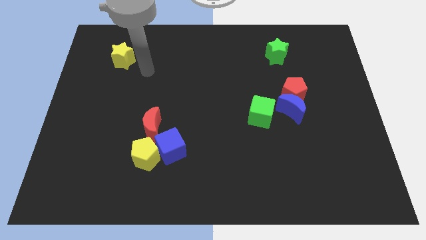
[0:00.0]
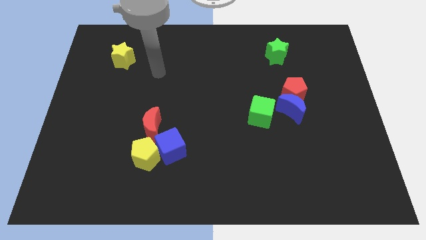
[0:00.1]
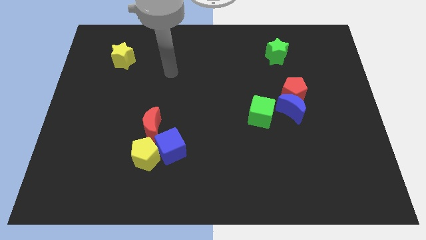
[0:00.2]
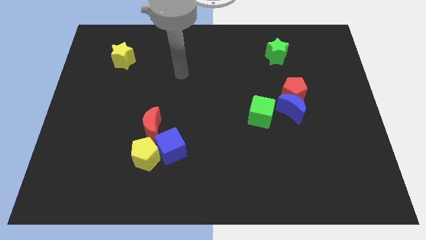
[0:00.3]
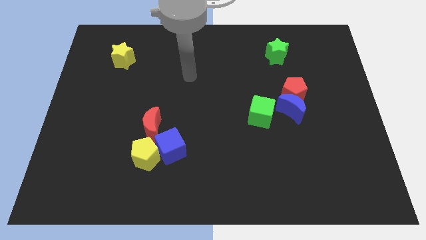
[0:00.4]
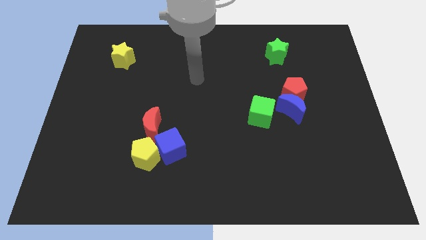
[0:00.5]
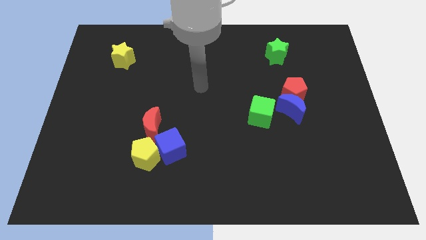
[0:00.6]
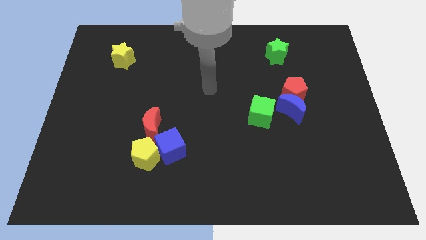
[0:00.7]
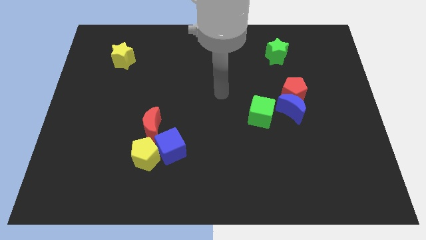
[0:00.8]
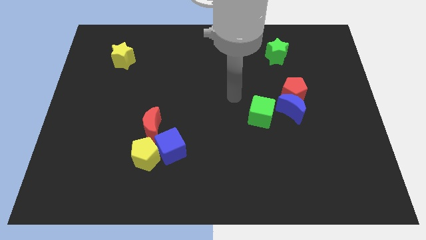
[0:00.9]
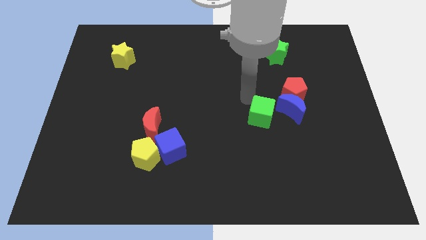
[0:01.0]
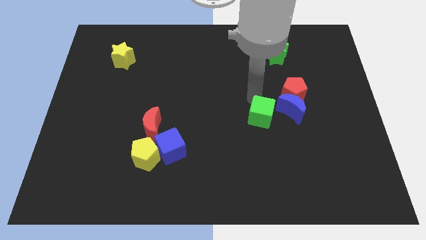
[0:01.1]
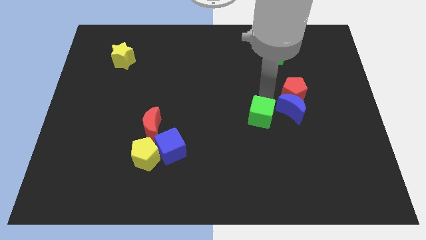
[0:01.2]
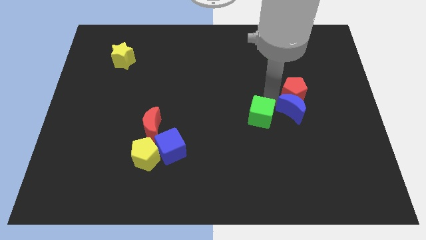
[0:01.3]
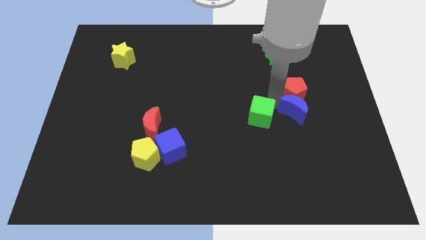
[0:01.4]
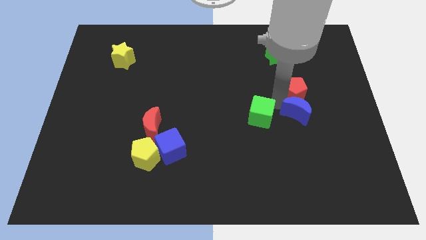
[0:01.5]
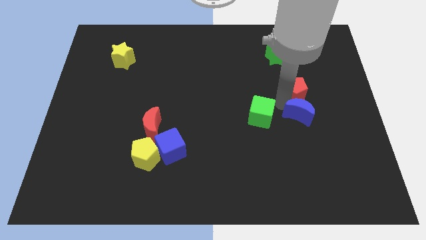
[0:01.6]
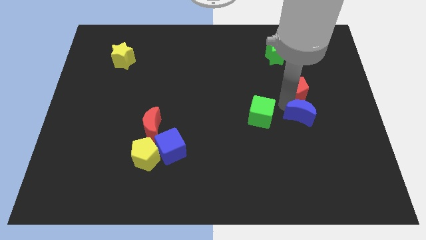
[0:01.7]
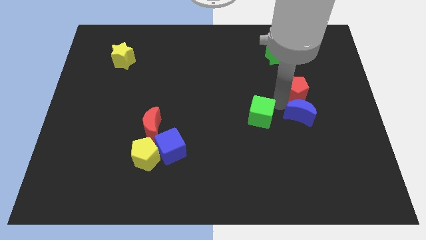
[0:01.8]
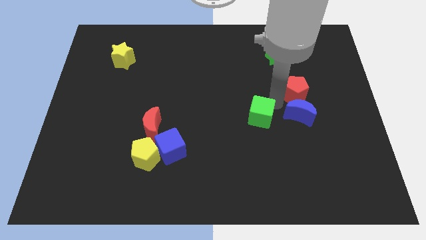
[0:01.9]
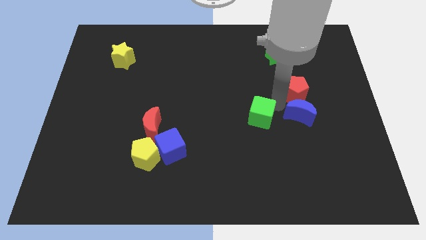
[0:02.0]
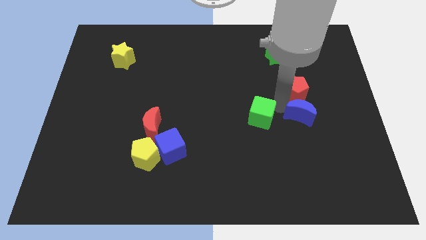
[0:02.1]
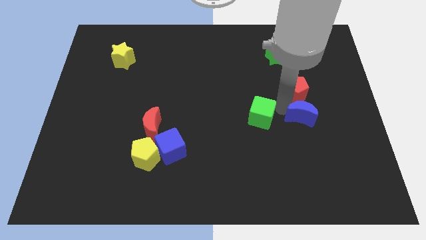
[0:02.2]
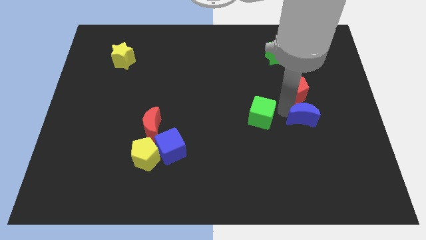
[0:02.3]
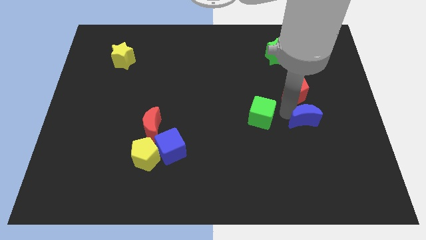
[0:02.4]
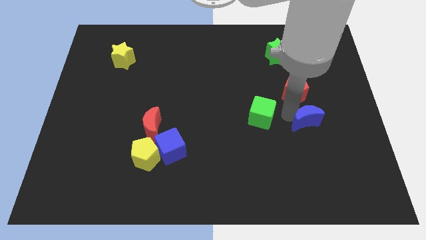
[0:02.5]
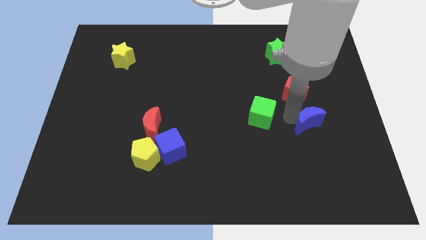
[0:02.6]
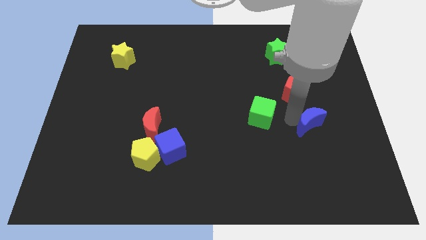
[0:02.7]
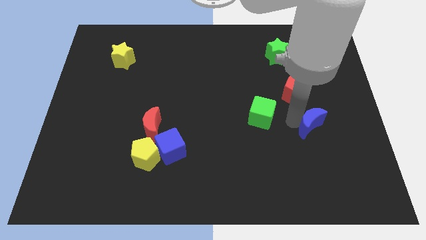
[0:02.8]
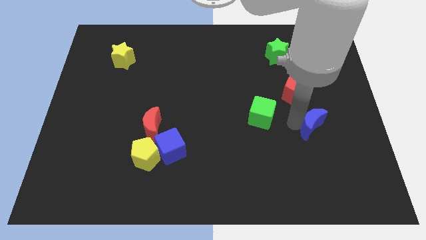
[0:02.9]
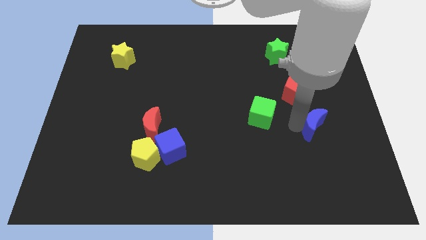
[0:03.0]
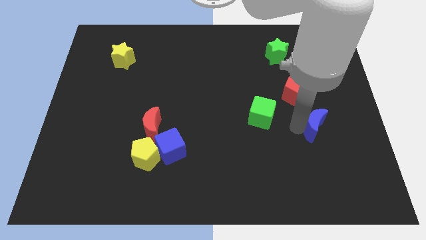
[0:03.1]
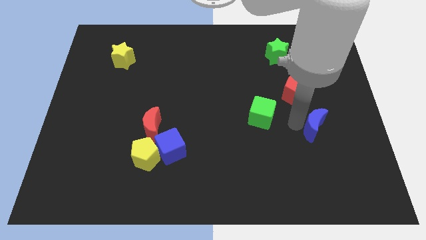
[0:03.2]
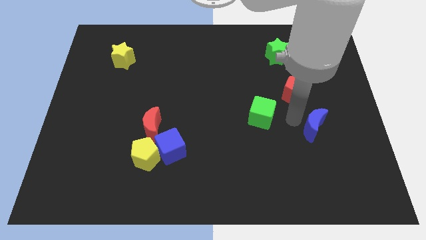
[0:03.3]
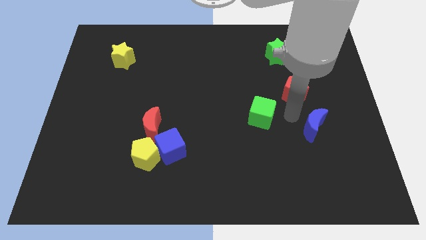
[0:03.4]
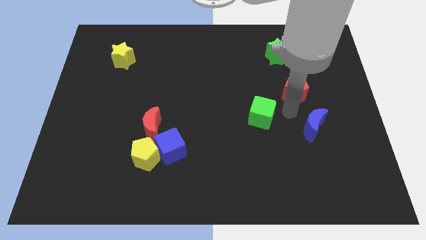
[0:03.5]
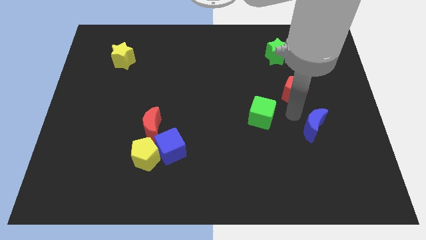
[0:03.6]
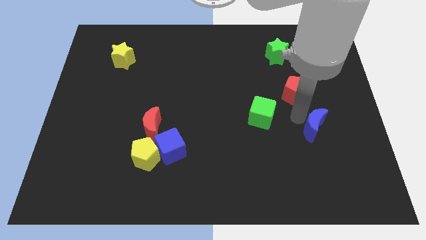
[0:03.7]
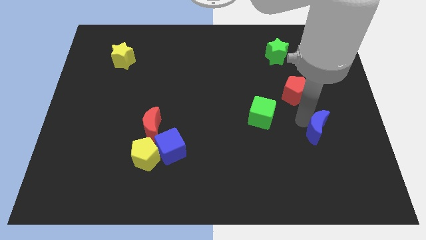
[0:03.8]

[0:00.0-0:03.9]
pull the blue moon apart from the red pentagon and green cube

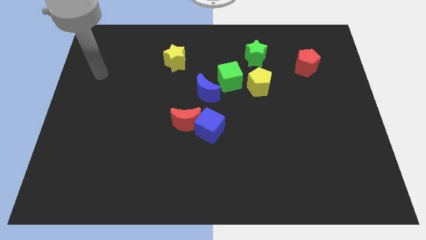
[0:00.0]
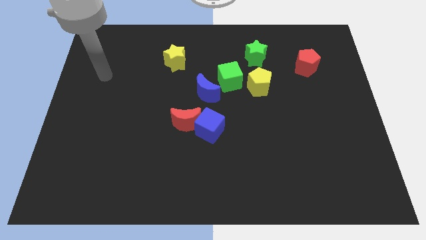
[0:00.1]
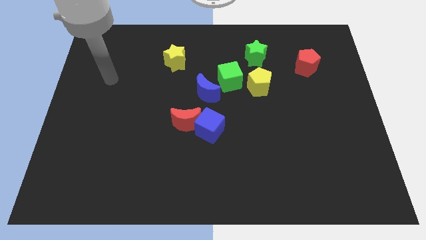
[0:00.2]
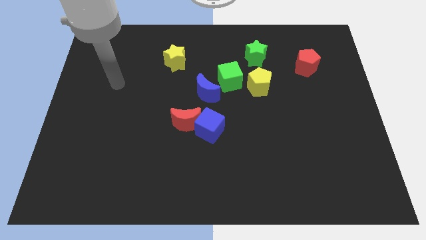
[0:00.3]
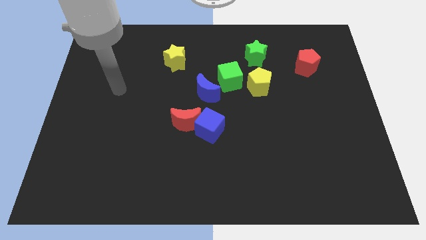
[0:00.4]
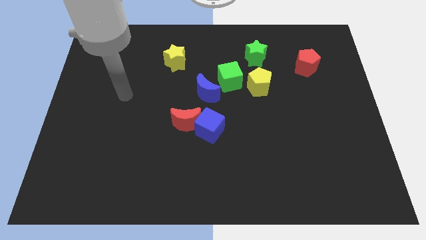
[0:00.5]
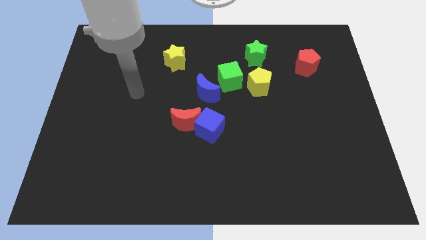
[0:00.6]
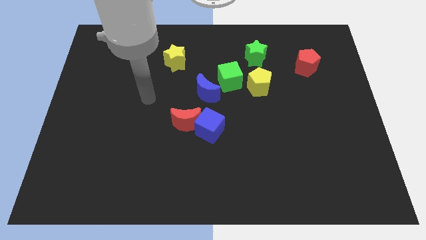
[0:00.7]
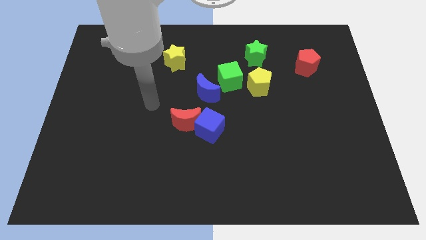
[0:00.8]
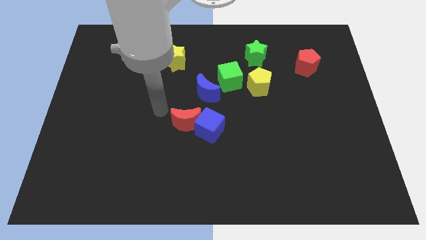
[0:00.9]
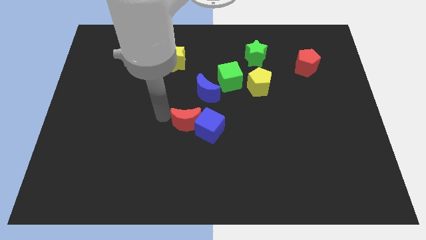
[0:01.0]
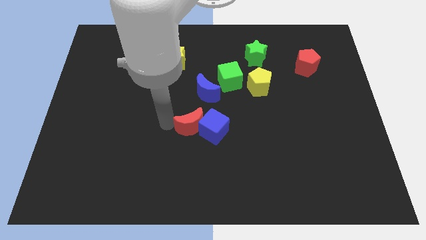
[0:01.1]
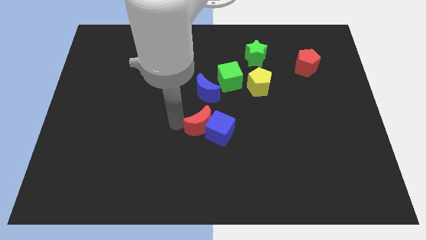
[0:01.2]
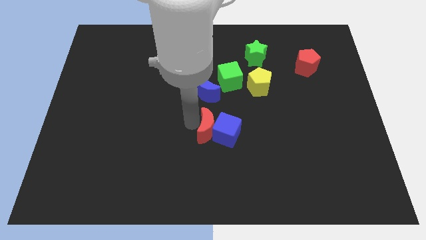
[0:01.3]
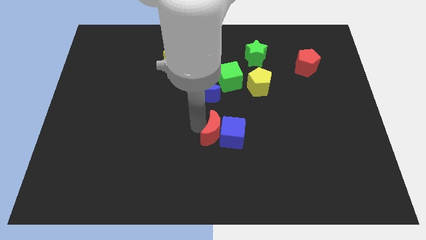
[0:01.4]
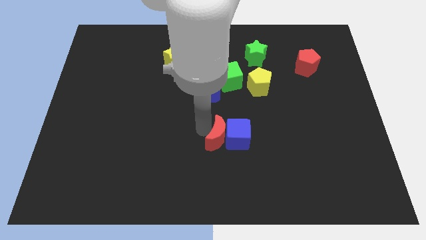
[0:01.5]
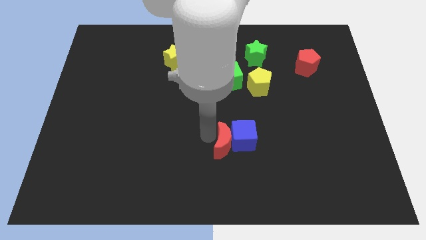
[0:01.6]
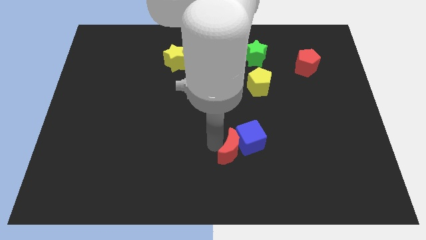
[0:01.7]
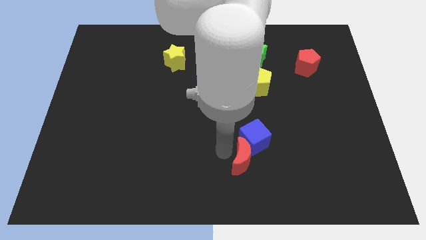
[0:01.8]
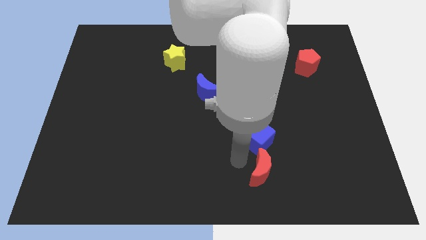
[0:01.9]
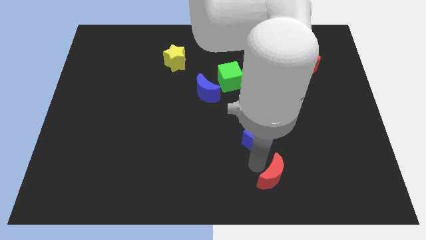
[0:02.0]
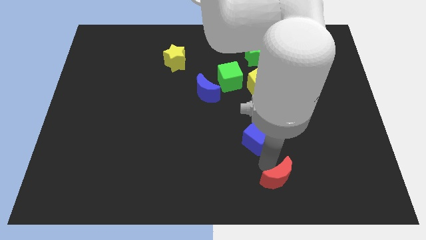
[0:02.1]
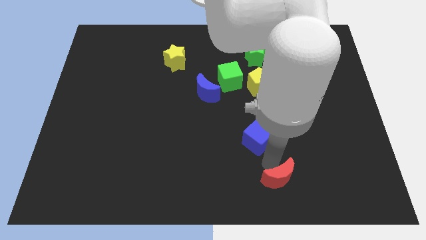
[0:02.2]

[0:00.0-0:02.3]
separate the blue cube from the red moon

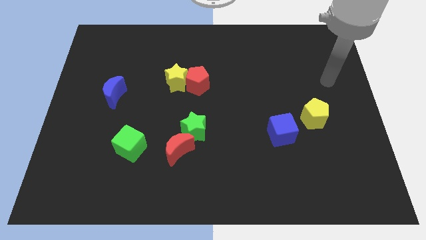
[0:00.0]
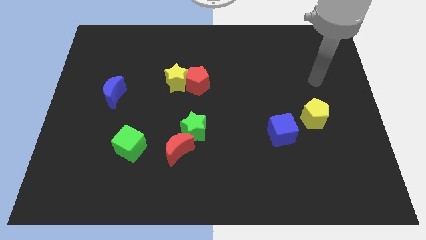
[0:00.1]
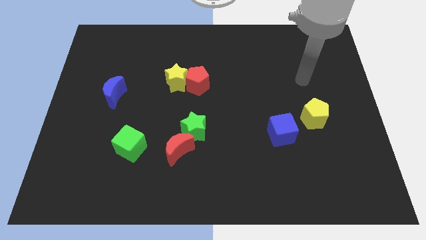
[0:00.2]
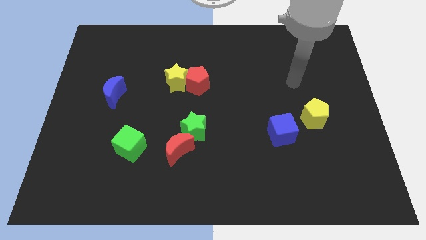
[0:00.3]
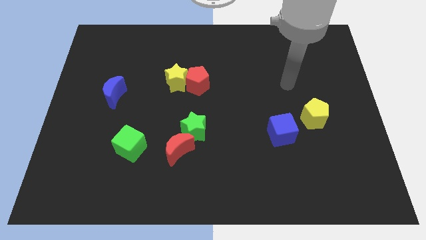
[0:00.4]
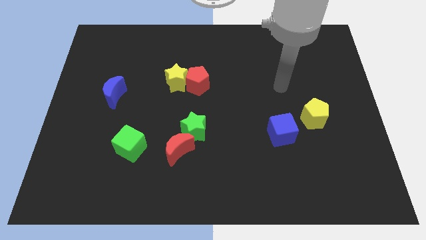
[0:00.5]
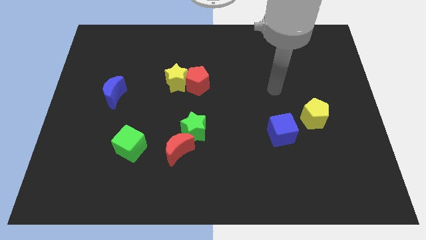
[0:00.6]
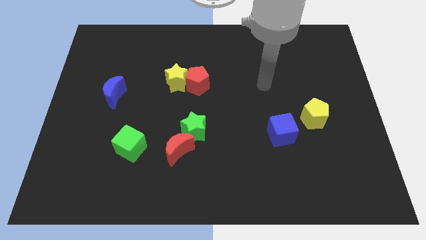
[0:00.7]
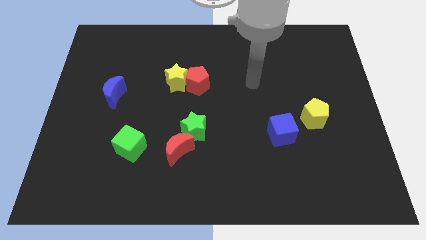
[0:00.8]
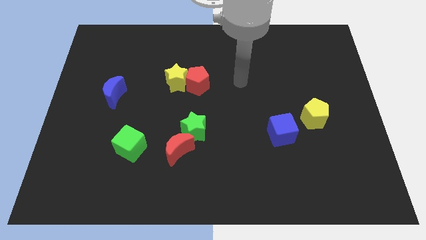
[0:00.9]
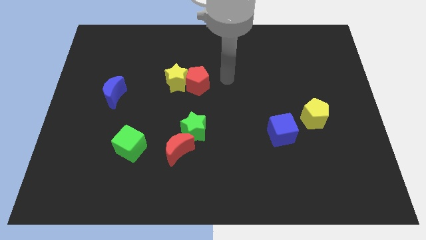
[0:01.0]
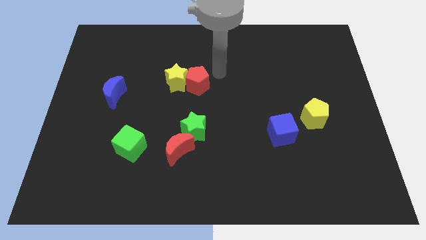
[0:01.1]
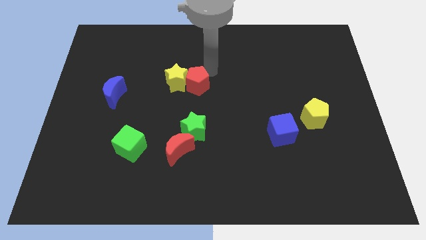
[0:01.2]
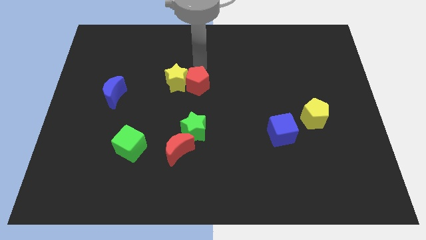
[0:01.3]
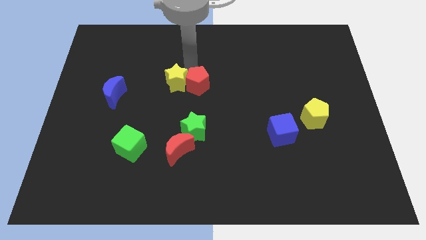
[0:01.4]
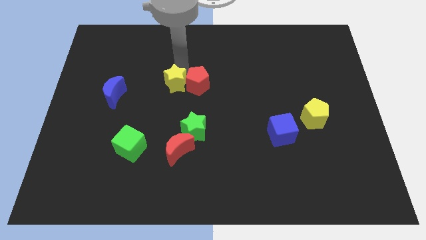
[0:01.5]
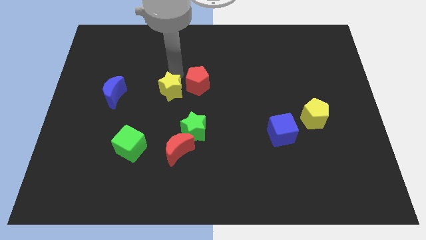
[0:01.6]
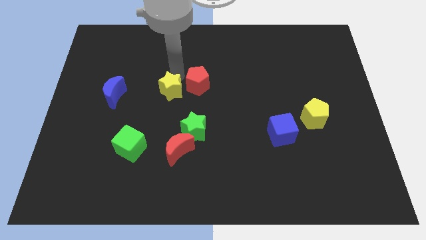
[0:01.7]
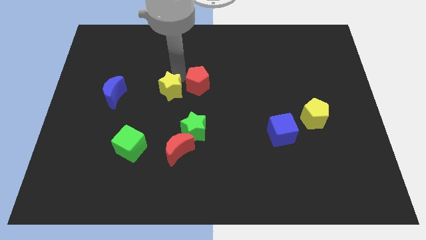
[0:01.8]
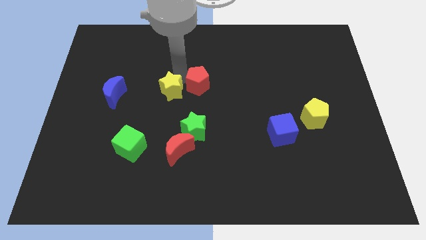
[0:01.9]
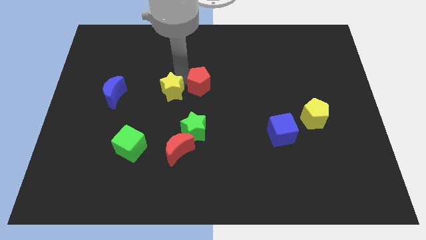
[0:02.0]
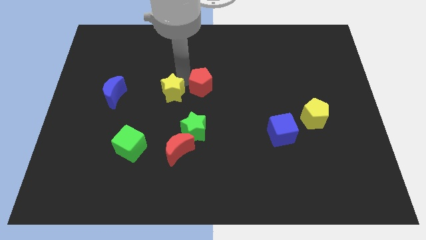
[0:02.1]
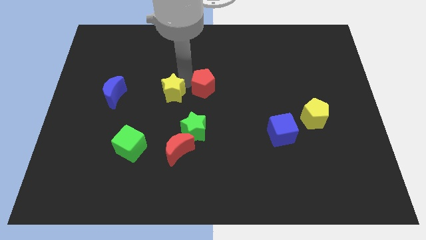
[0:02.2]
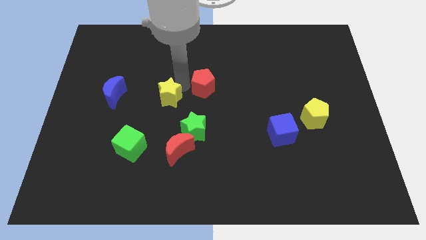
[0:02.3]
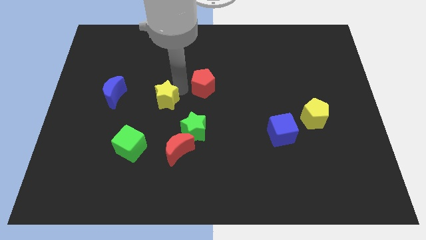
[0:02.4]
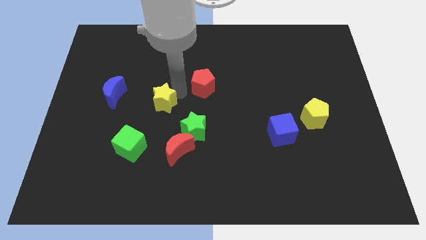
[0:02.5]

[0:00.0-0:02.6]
pull the red pentagon apart from the yellow star

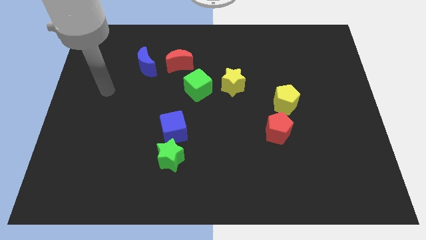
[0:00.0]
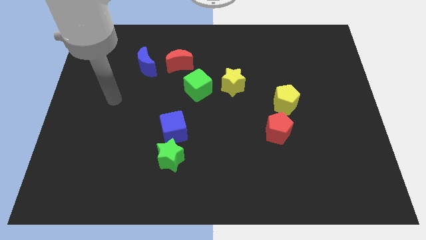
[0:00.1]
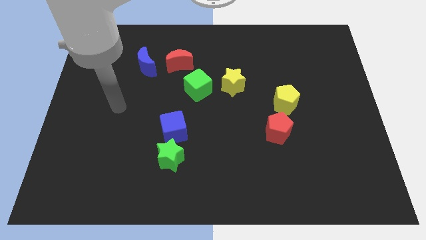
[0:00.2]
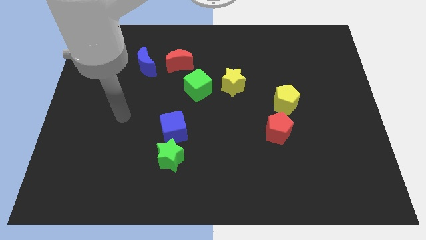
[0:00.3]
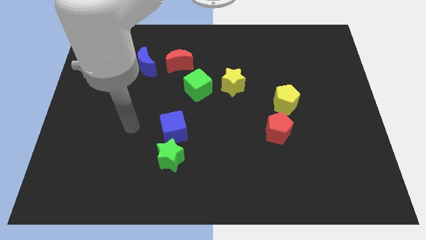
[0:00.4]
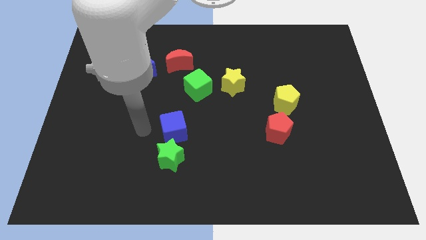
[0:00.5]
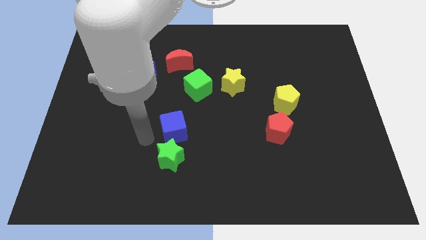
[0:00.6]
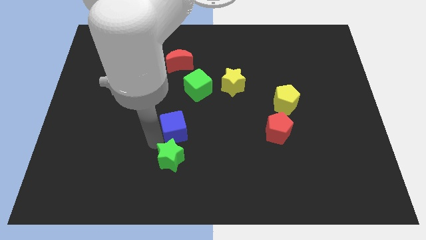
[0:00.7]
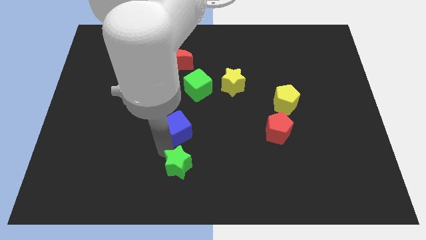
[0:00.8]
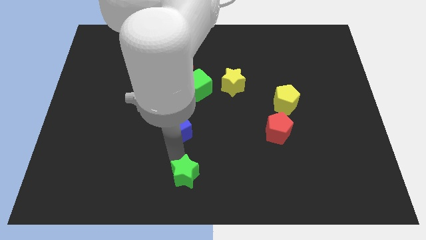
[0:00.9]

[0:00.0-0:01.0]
separate the blue cube from the green star
